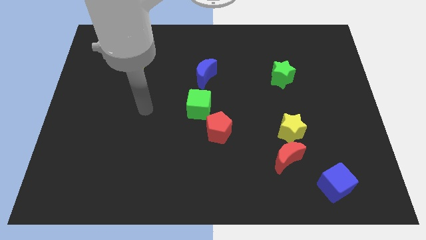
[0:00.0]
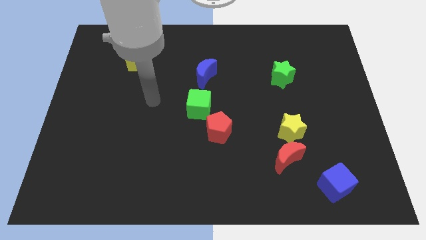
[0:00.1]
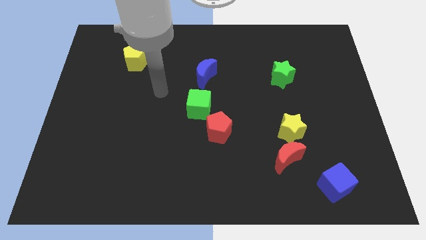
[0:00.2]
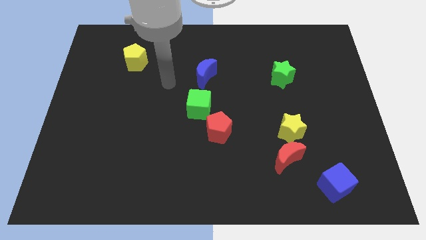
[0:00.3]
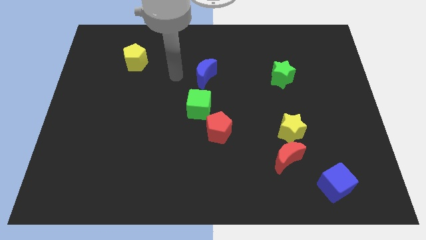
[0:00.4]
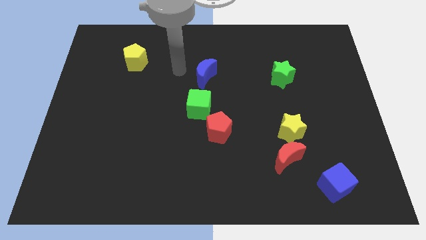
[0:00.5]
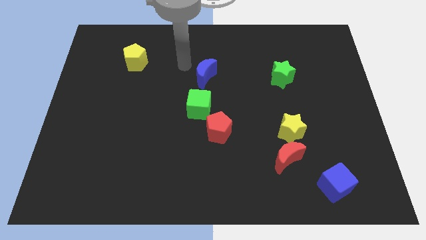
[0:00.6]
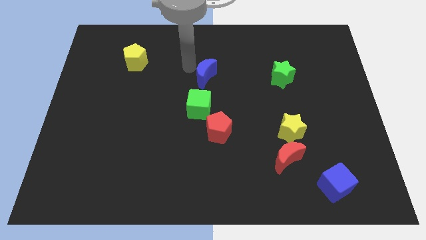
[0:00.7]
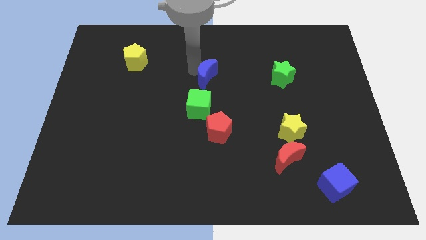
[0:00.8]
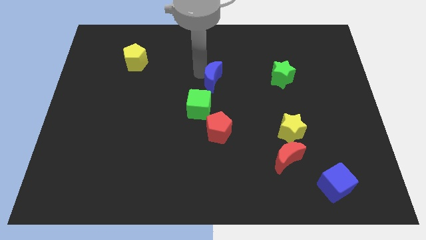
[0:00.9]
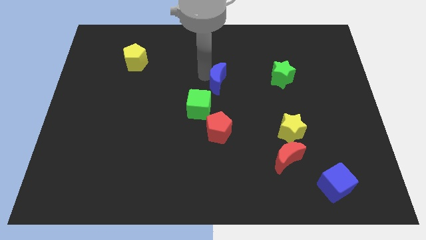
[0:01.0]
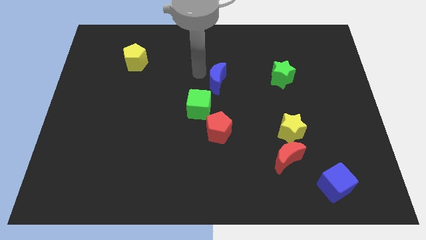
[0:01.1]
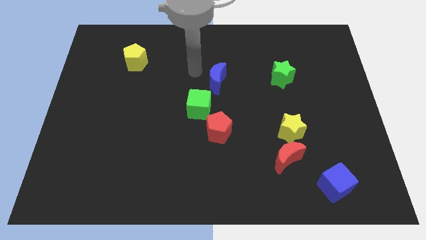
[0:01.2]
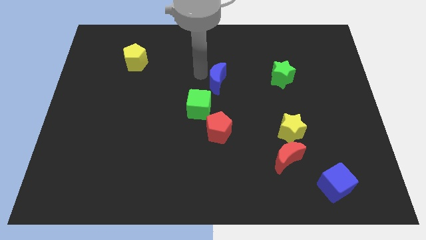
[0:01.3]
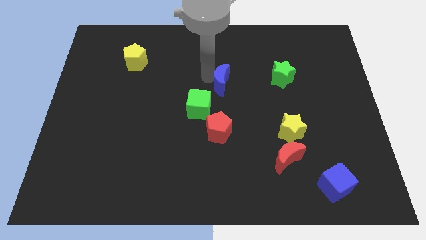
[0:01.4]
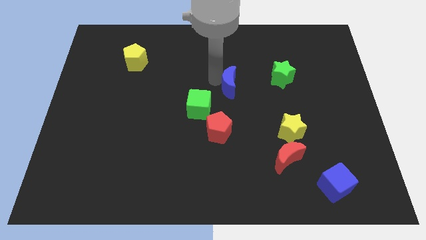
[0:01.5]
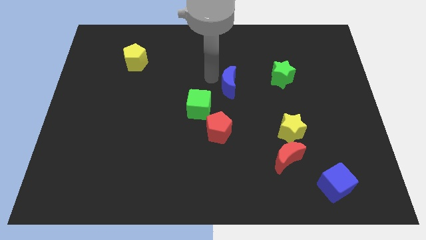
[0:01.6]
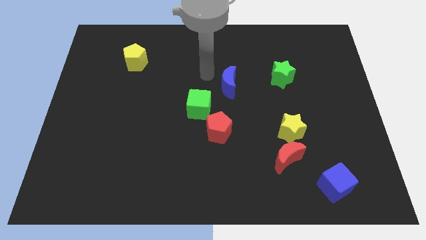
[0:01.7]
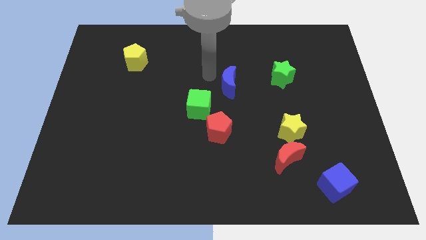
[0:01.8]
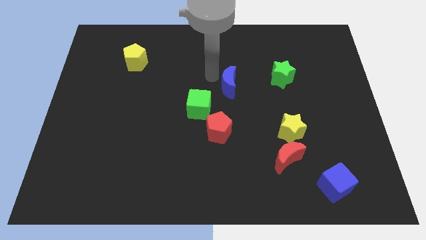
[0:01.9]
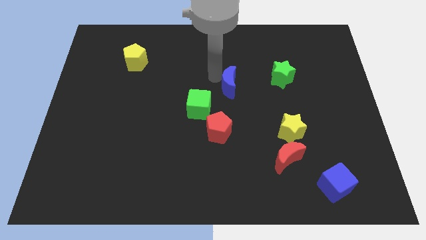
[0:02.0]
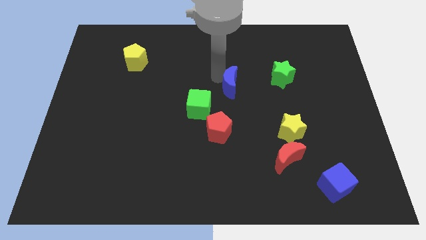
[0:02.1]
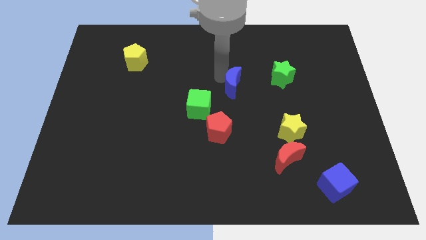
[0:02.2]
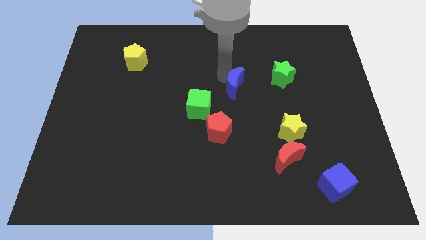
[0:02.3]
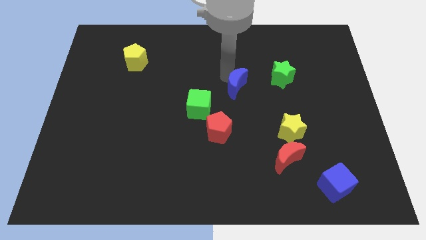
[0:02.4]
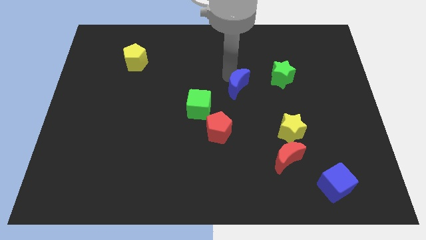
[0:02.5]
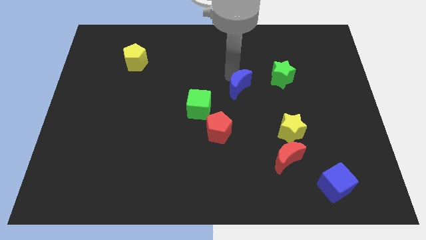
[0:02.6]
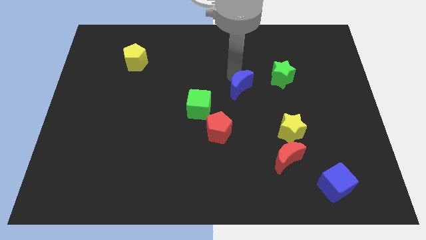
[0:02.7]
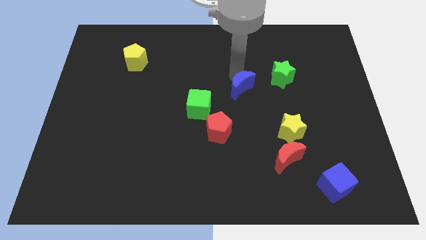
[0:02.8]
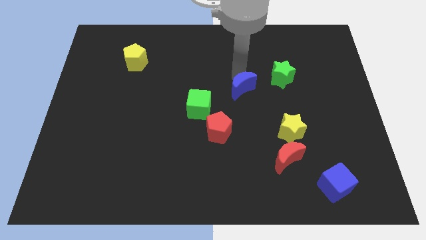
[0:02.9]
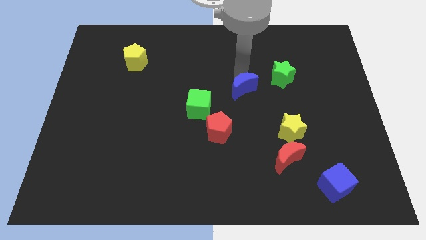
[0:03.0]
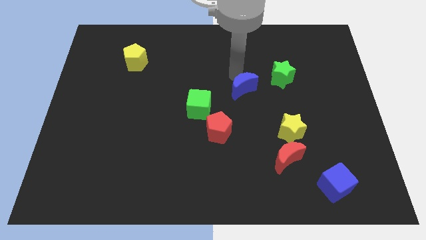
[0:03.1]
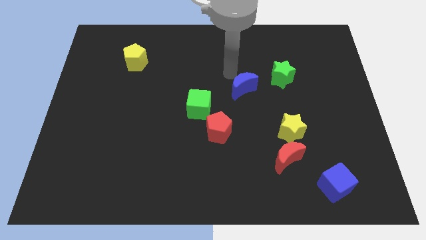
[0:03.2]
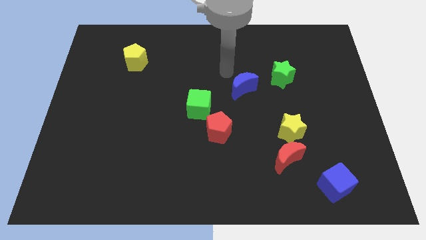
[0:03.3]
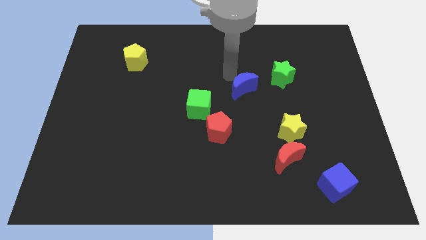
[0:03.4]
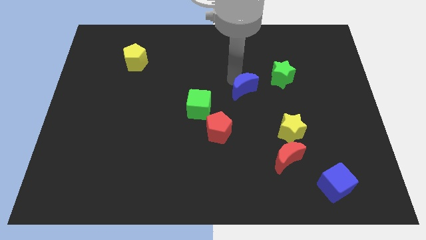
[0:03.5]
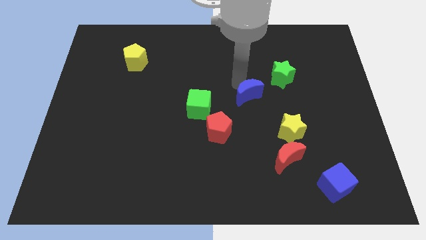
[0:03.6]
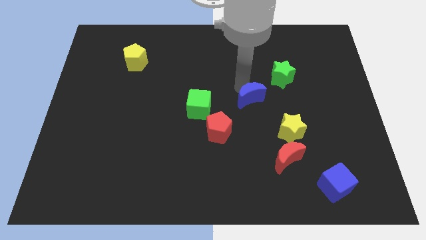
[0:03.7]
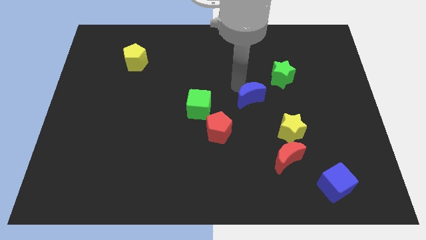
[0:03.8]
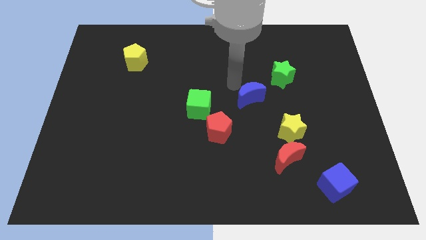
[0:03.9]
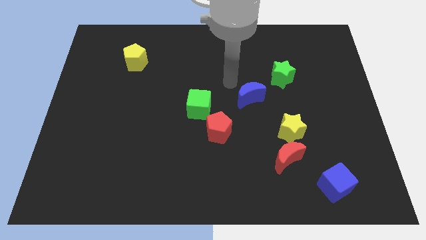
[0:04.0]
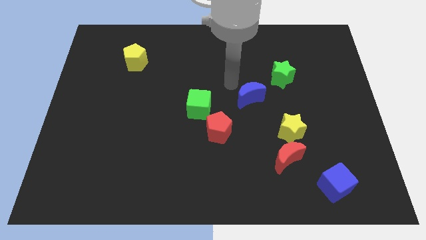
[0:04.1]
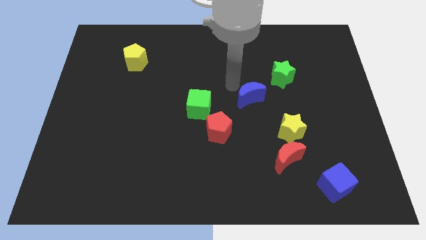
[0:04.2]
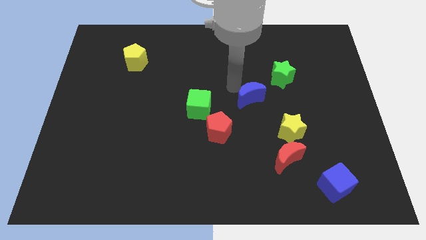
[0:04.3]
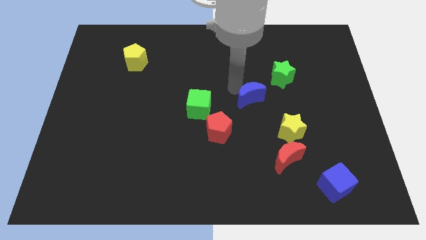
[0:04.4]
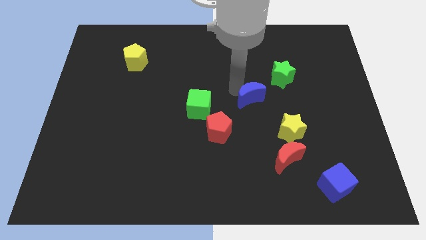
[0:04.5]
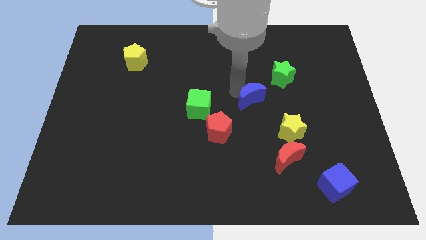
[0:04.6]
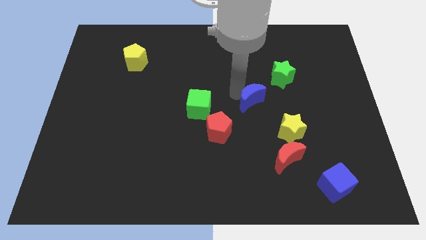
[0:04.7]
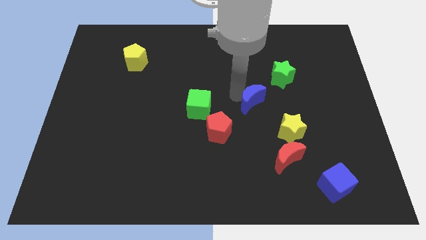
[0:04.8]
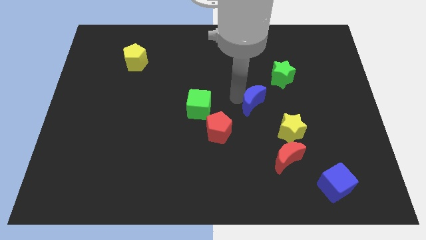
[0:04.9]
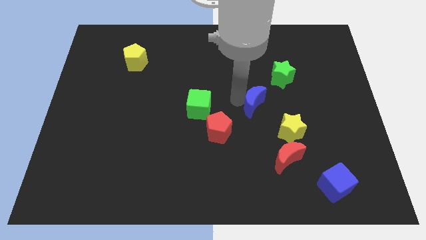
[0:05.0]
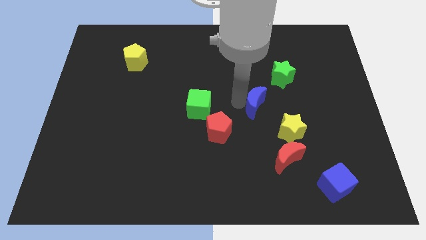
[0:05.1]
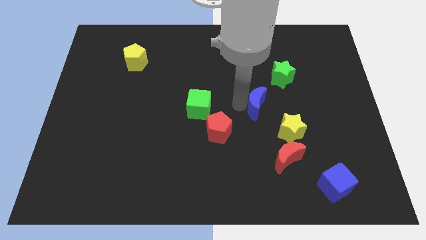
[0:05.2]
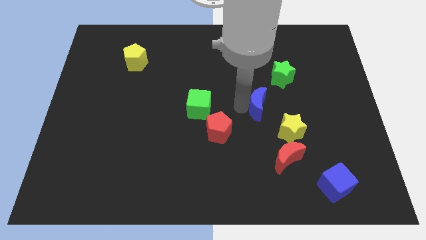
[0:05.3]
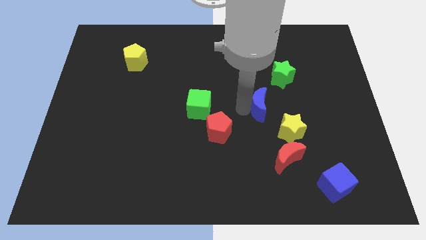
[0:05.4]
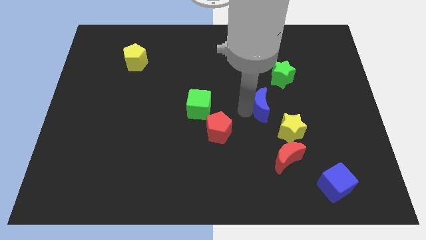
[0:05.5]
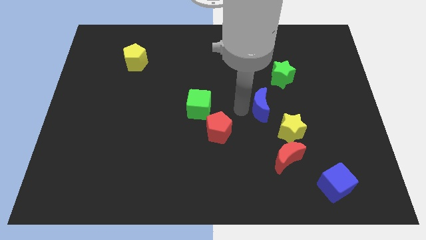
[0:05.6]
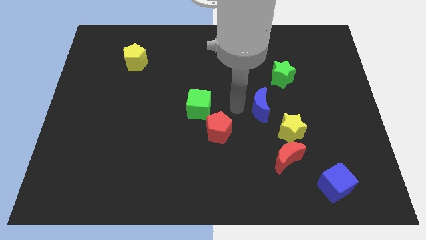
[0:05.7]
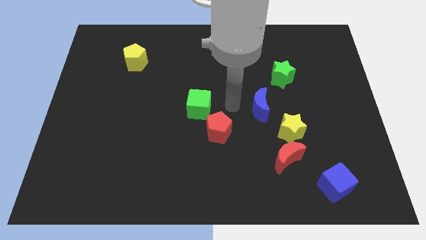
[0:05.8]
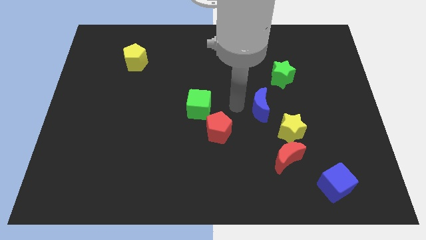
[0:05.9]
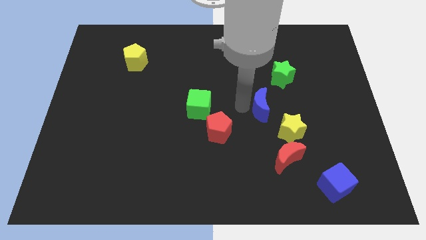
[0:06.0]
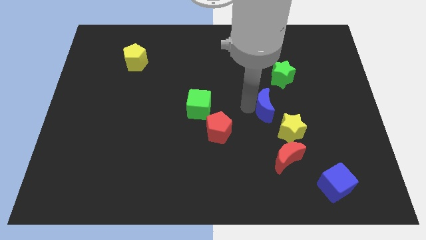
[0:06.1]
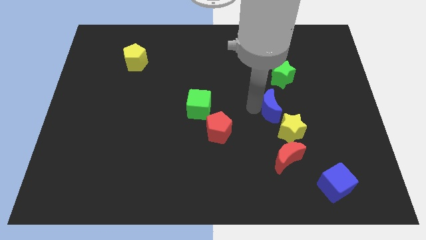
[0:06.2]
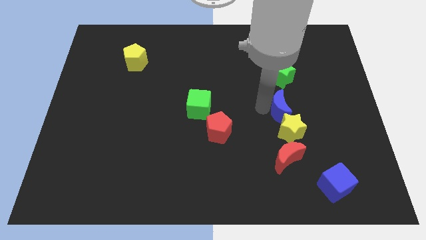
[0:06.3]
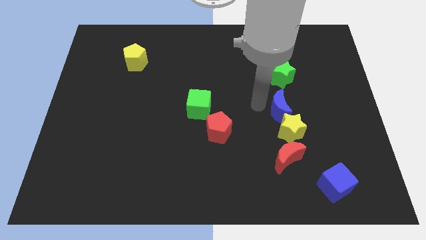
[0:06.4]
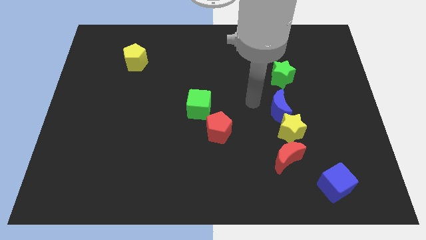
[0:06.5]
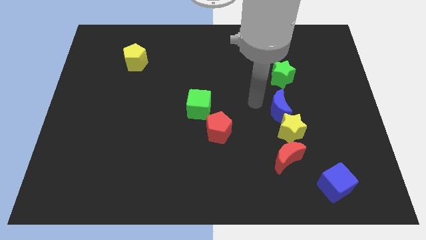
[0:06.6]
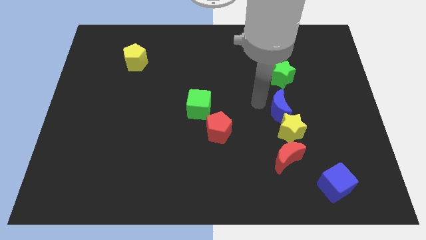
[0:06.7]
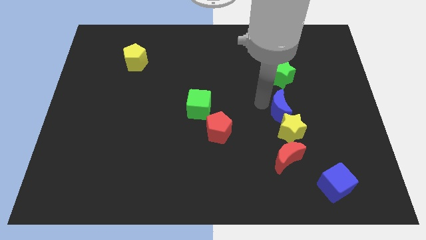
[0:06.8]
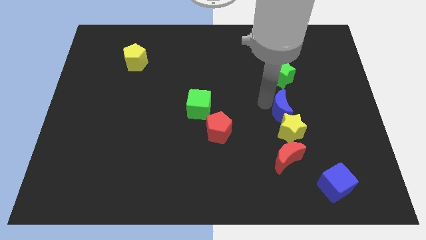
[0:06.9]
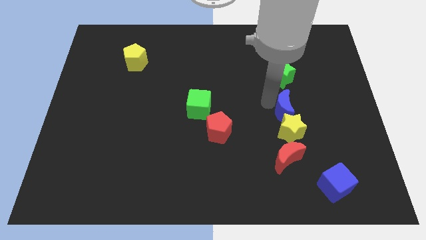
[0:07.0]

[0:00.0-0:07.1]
push the blue moon down and then to the right

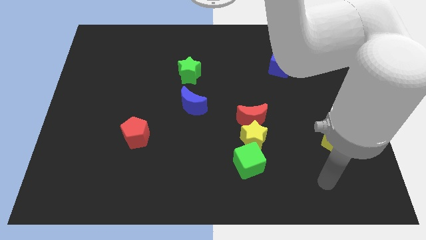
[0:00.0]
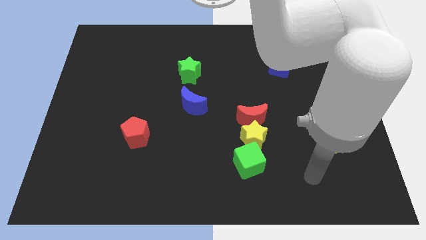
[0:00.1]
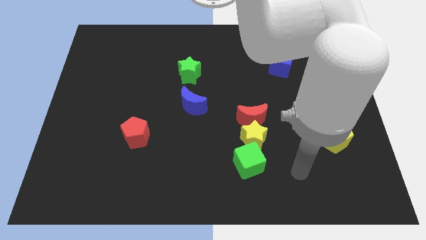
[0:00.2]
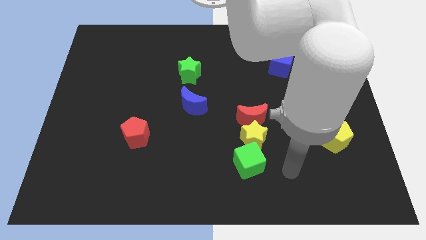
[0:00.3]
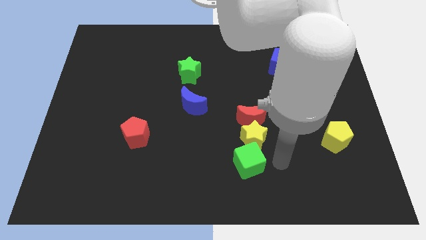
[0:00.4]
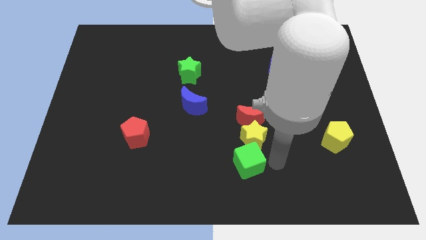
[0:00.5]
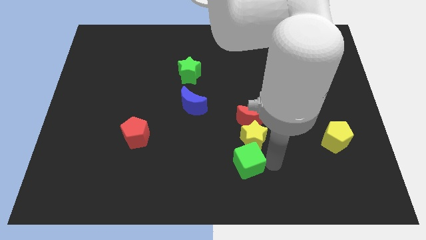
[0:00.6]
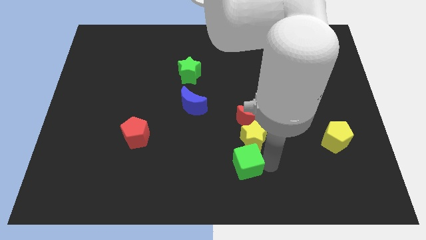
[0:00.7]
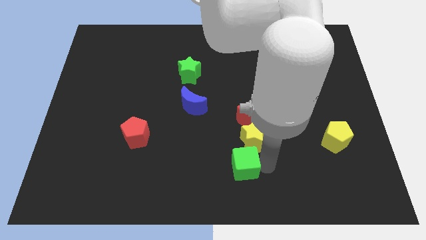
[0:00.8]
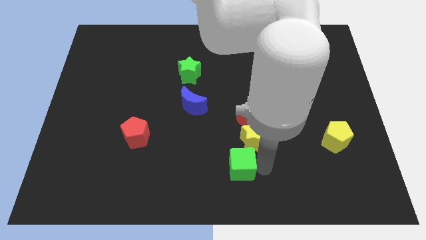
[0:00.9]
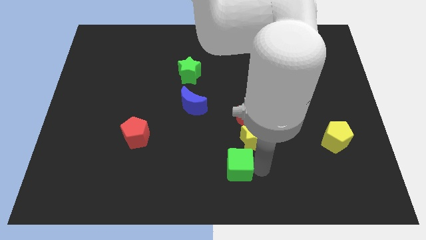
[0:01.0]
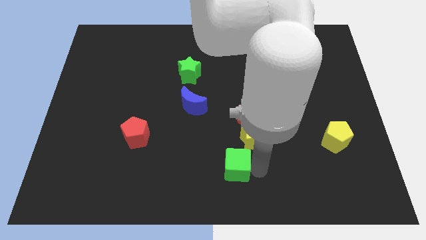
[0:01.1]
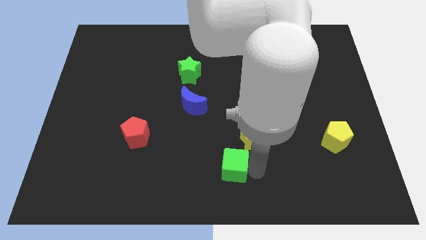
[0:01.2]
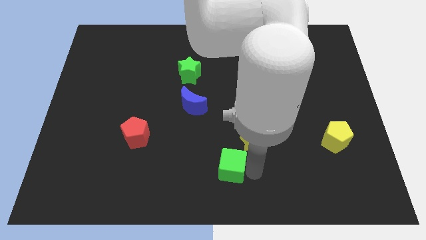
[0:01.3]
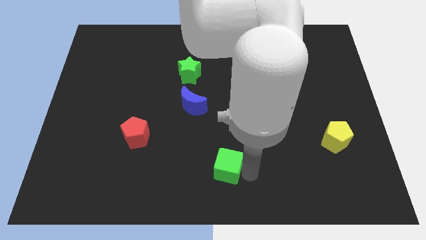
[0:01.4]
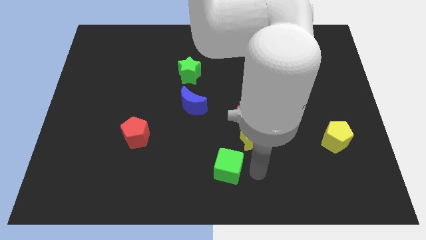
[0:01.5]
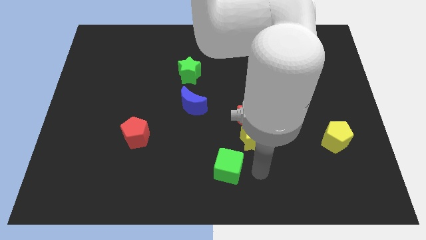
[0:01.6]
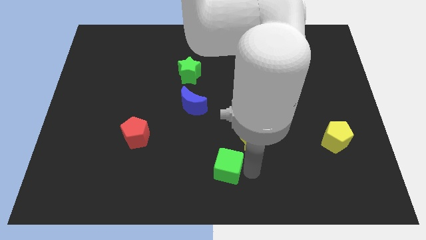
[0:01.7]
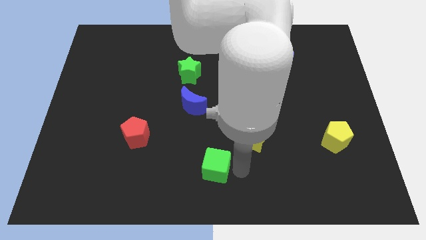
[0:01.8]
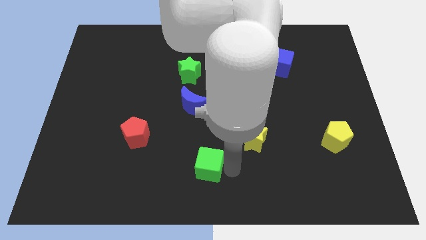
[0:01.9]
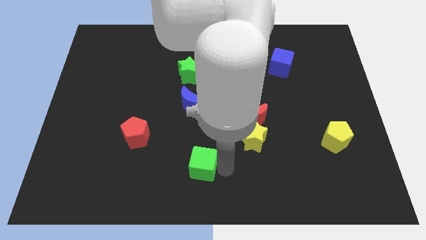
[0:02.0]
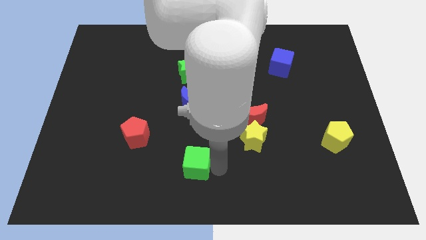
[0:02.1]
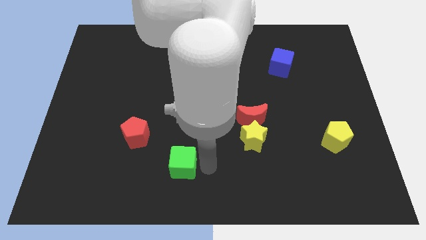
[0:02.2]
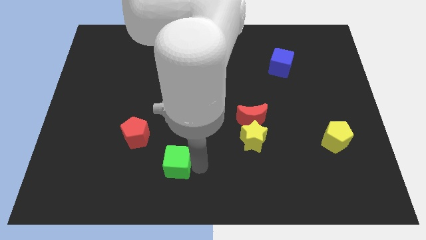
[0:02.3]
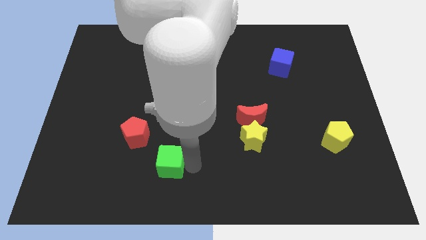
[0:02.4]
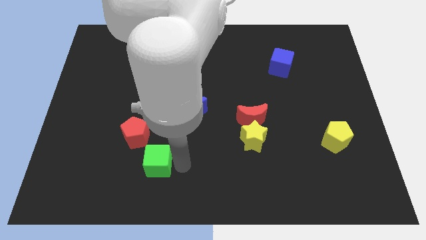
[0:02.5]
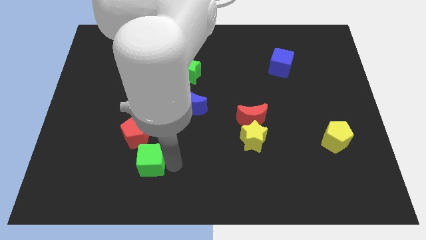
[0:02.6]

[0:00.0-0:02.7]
slide the green cube left
